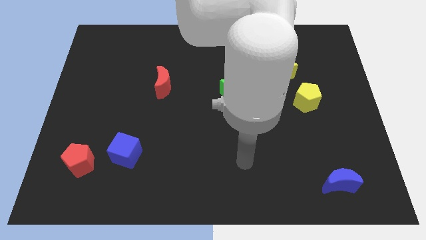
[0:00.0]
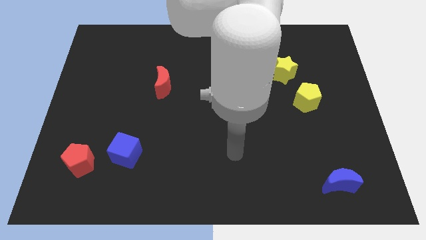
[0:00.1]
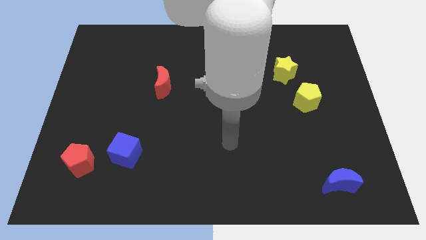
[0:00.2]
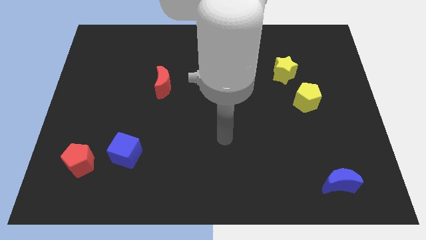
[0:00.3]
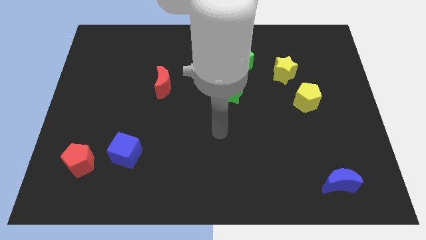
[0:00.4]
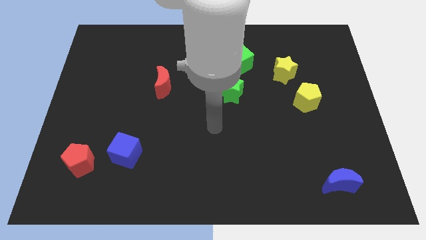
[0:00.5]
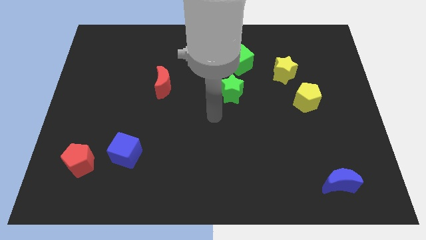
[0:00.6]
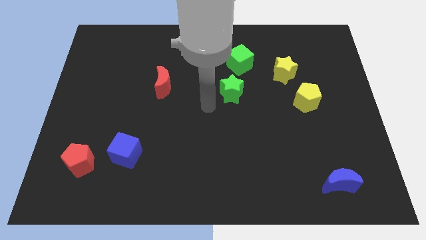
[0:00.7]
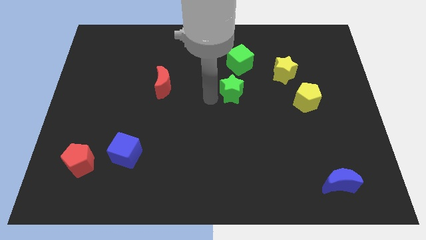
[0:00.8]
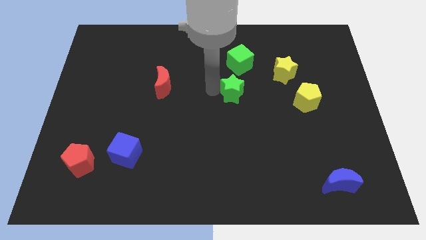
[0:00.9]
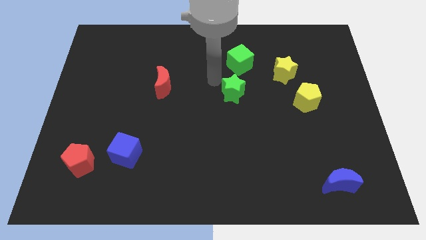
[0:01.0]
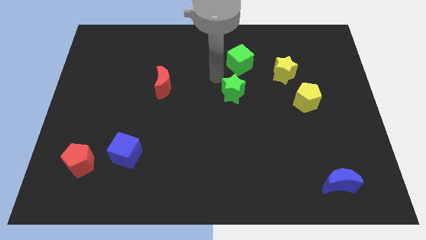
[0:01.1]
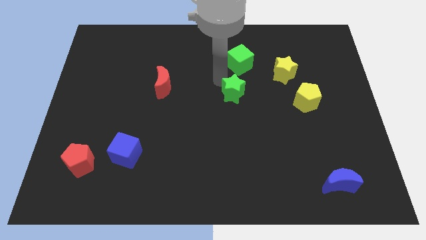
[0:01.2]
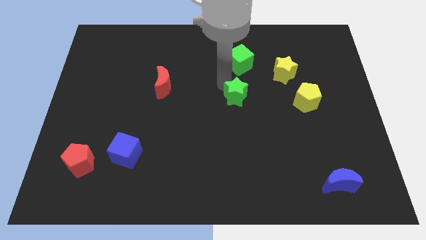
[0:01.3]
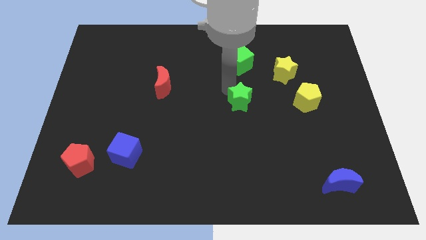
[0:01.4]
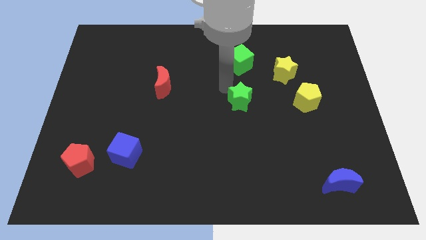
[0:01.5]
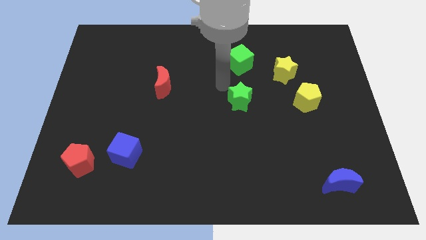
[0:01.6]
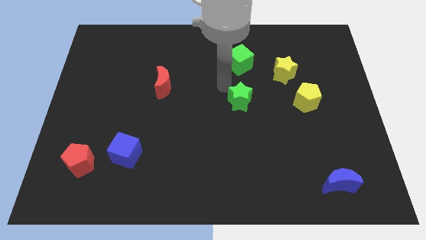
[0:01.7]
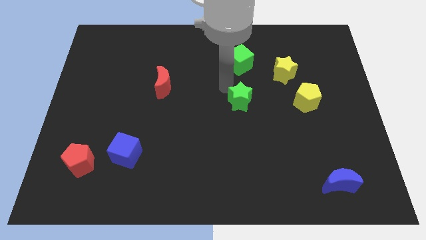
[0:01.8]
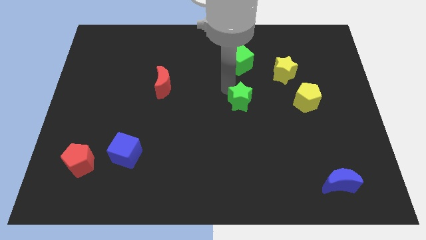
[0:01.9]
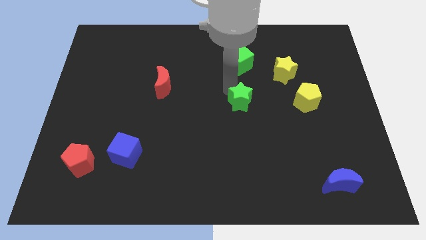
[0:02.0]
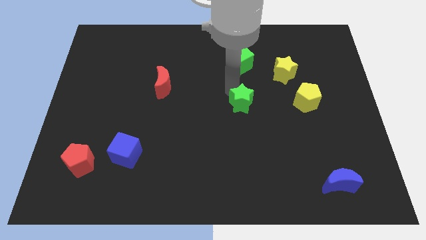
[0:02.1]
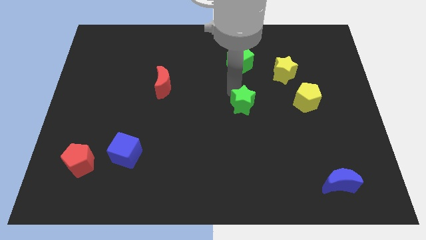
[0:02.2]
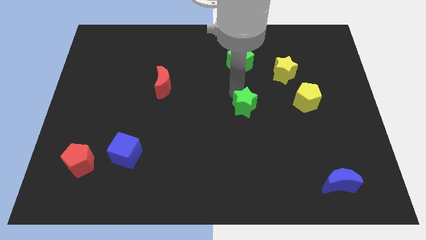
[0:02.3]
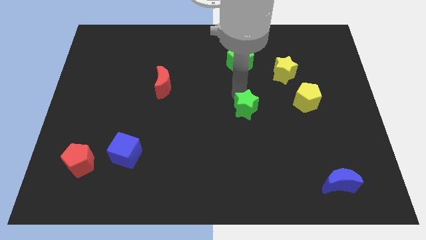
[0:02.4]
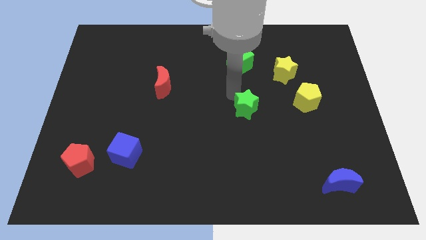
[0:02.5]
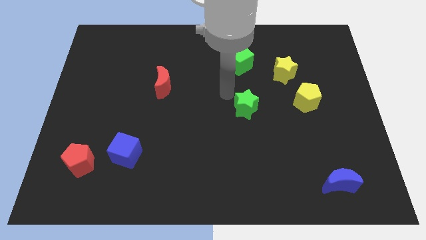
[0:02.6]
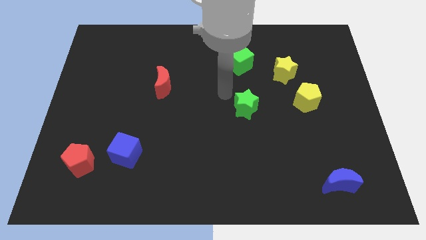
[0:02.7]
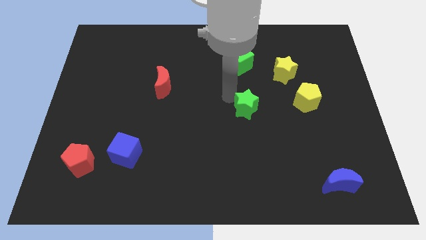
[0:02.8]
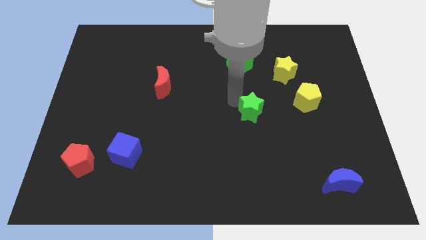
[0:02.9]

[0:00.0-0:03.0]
slide the green star a little downwards and to the right diagonally

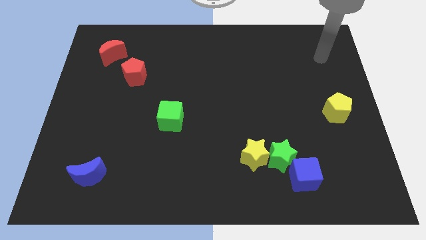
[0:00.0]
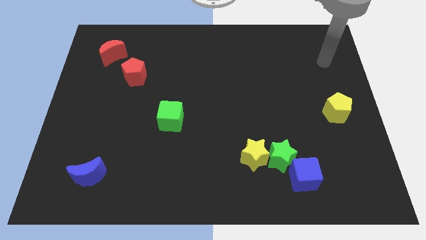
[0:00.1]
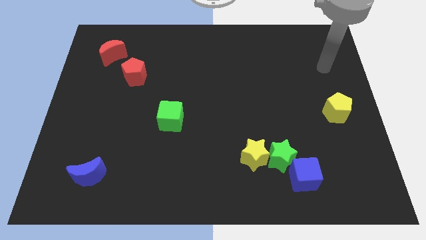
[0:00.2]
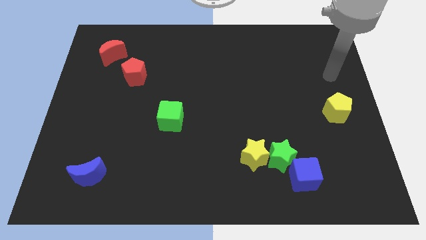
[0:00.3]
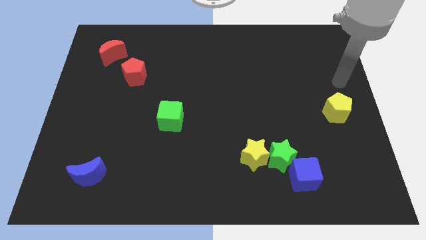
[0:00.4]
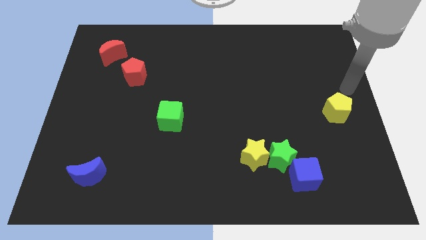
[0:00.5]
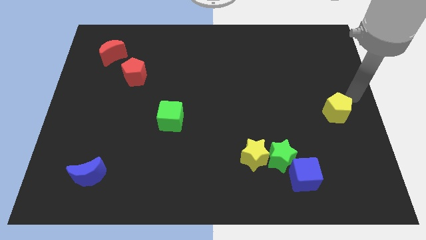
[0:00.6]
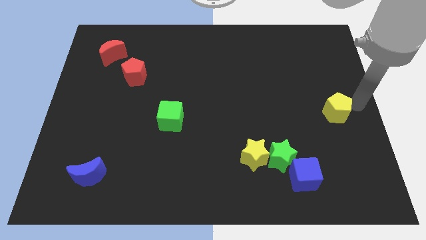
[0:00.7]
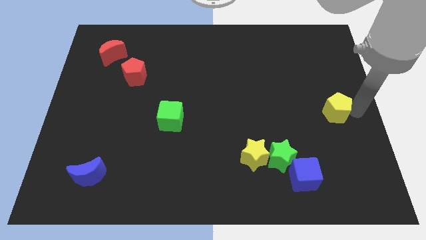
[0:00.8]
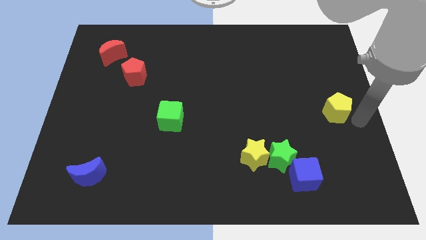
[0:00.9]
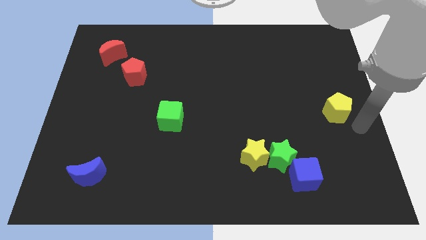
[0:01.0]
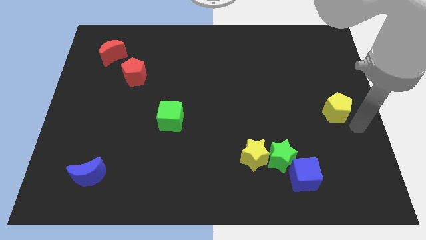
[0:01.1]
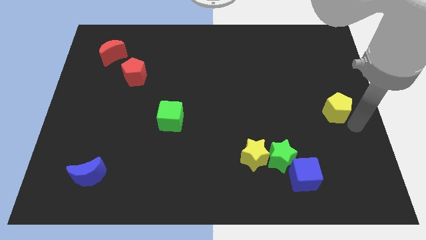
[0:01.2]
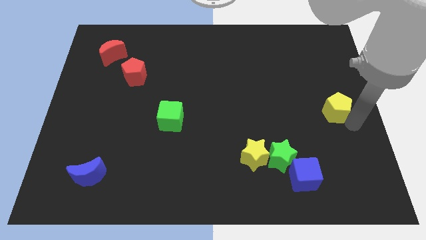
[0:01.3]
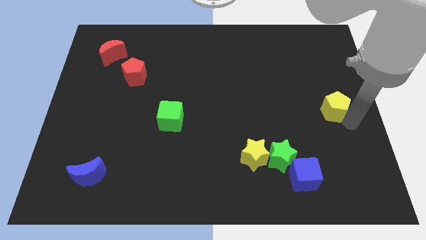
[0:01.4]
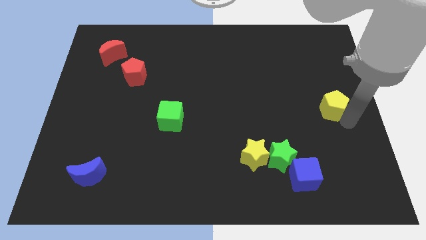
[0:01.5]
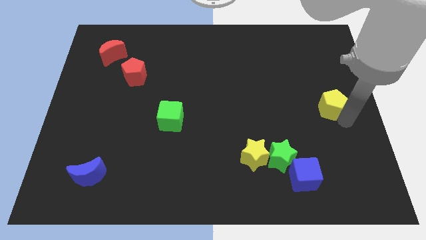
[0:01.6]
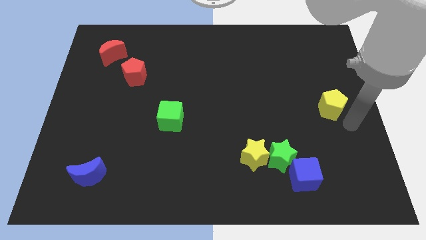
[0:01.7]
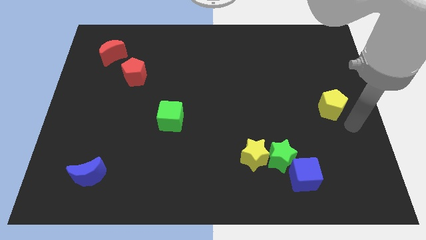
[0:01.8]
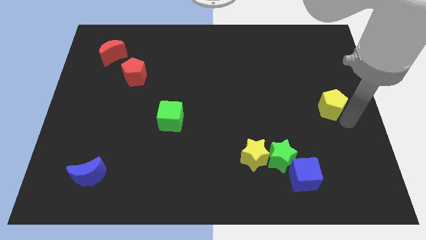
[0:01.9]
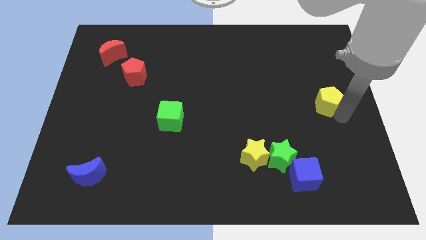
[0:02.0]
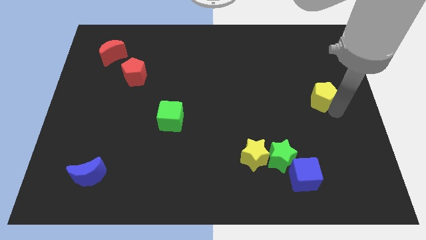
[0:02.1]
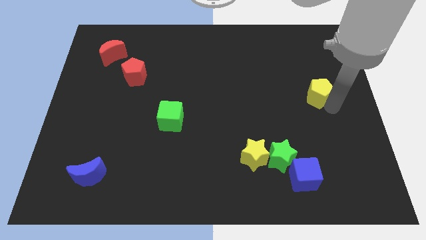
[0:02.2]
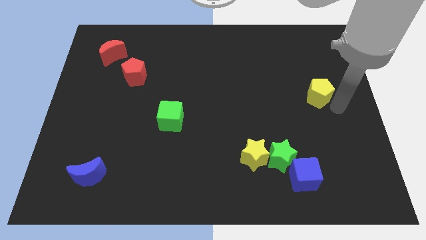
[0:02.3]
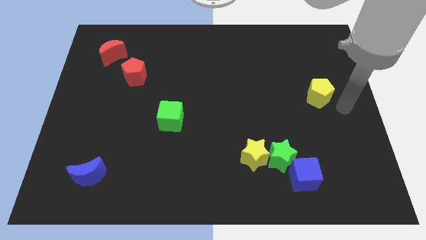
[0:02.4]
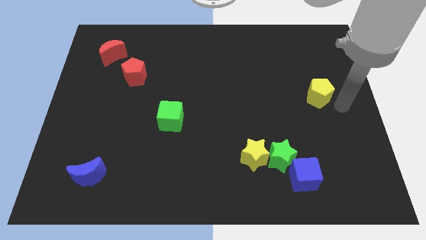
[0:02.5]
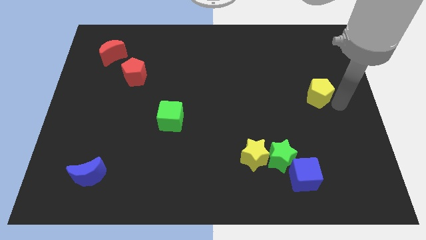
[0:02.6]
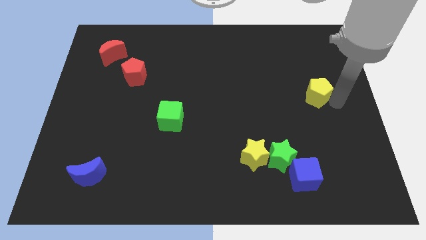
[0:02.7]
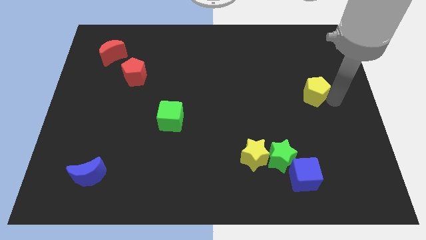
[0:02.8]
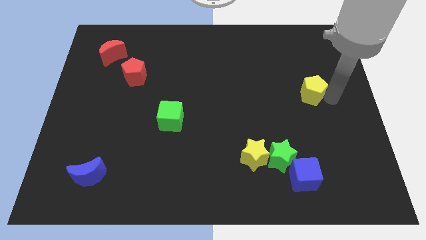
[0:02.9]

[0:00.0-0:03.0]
push the yellow pentagon a little up and to the left diagonally

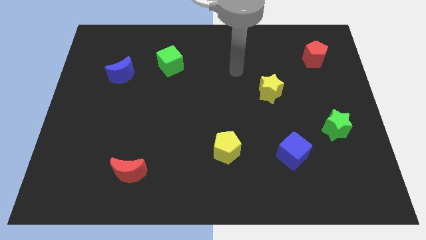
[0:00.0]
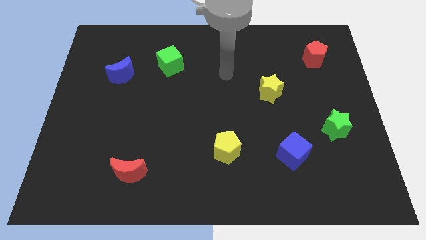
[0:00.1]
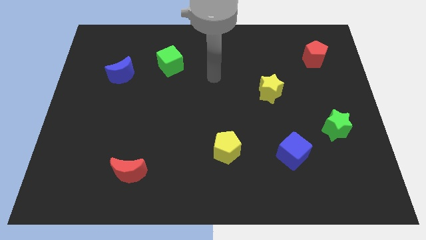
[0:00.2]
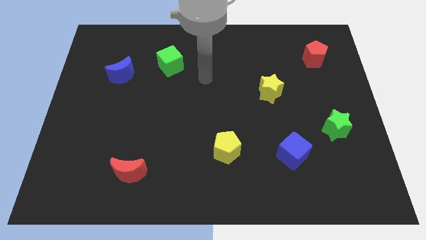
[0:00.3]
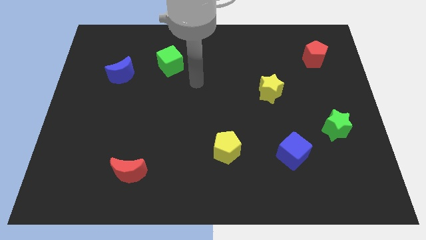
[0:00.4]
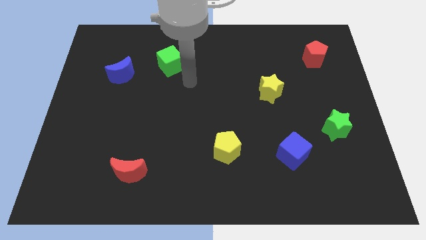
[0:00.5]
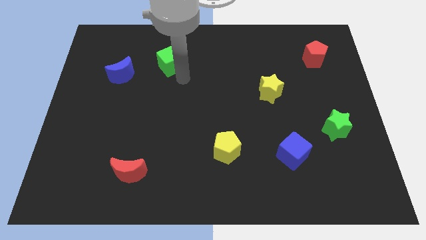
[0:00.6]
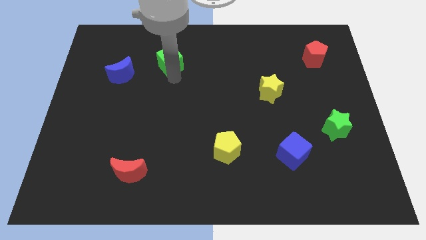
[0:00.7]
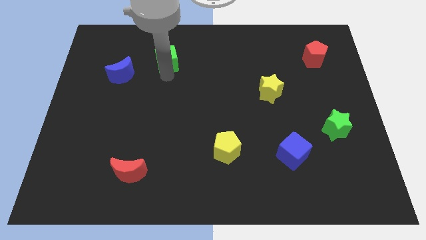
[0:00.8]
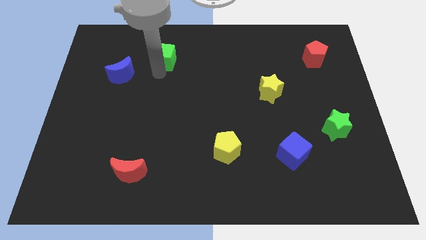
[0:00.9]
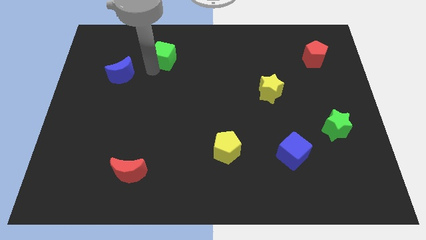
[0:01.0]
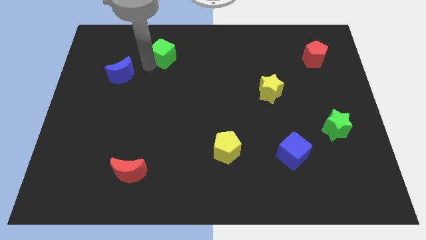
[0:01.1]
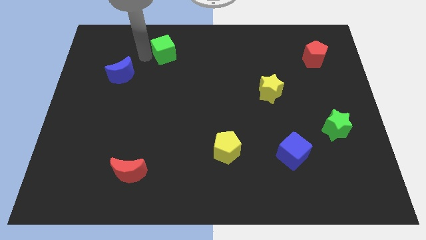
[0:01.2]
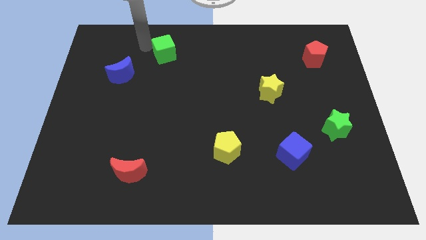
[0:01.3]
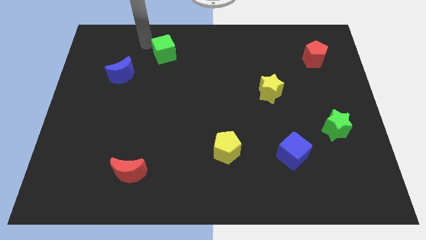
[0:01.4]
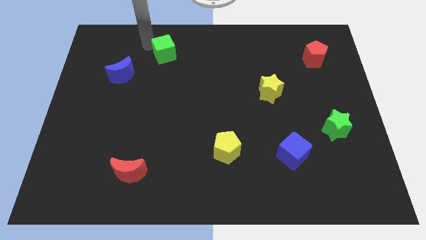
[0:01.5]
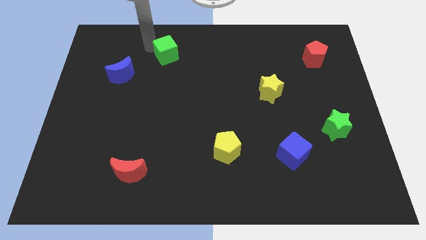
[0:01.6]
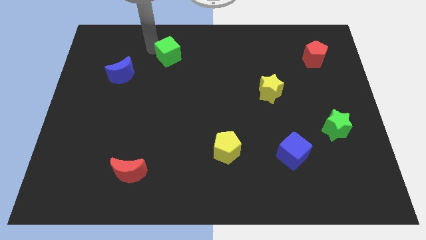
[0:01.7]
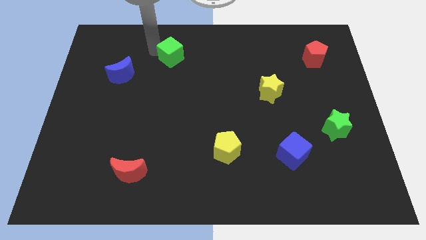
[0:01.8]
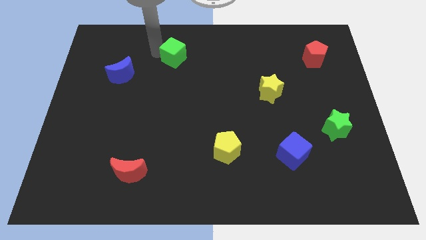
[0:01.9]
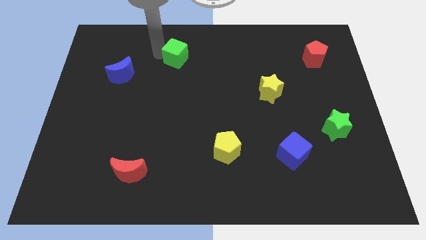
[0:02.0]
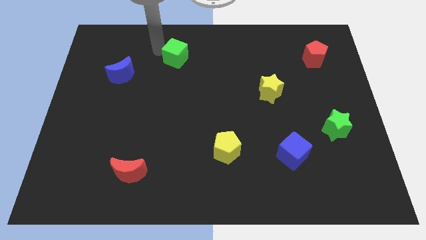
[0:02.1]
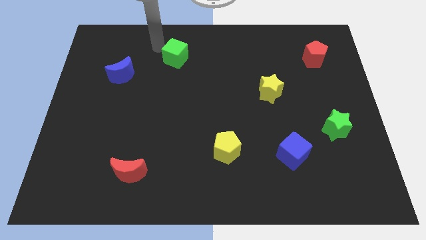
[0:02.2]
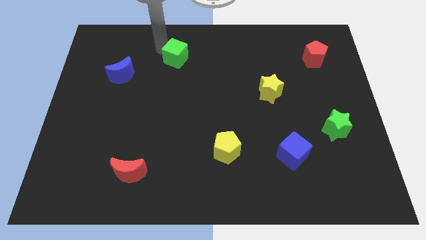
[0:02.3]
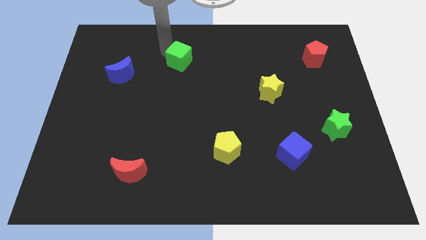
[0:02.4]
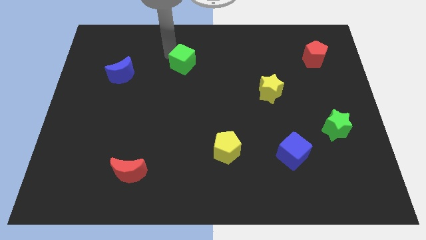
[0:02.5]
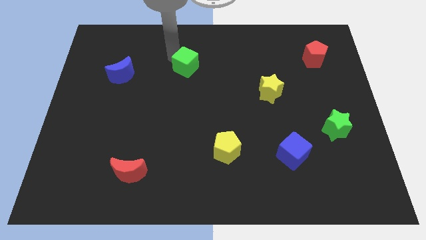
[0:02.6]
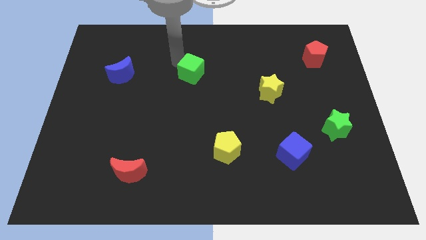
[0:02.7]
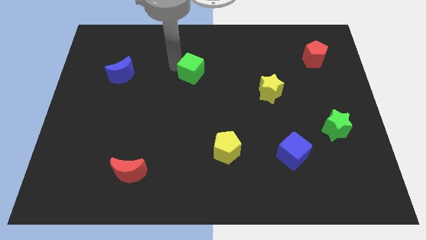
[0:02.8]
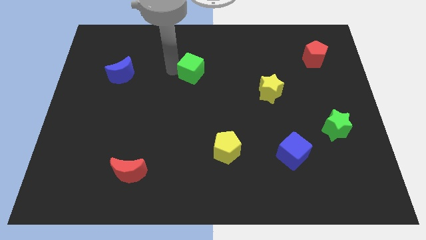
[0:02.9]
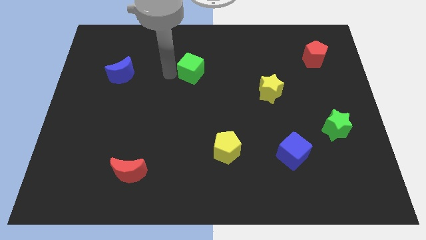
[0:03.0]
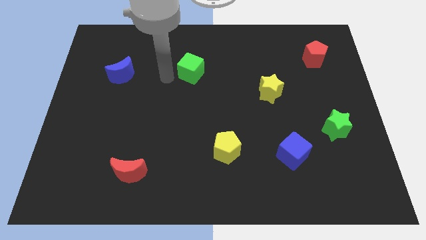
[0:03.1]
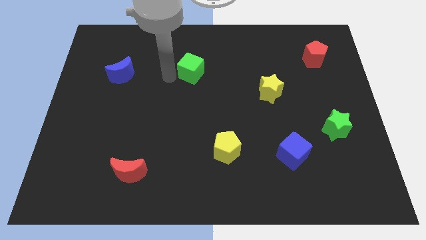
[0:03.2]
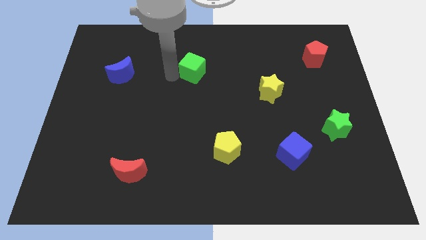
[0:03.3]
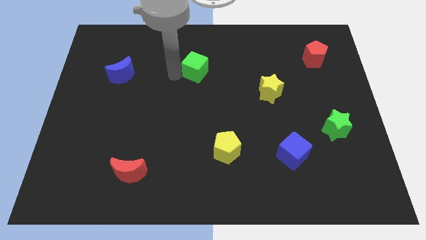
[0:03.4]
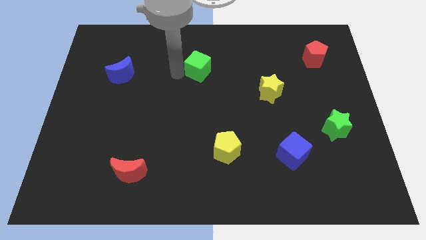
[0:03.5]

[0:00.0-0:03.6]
move the green cube somewhat to the right
